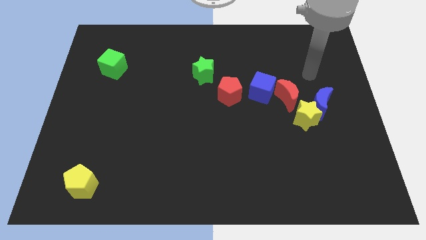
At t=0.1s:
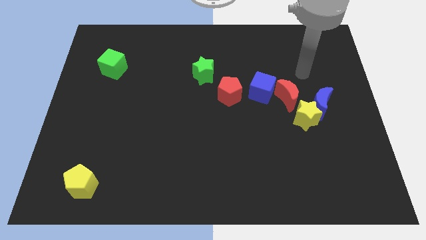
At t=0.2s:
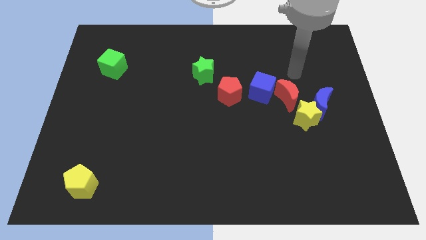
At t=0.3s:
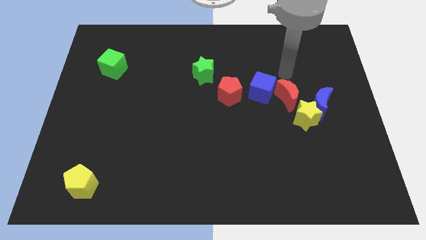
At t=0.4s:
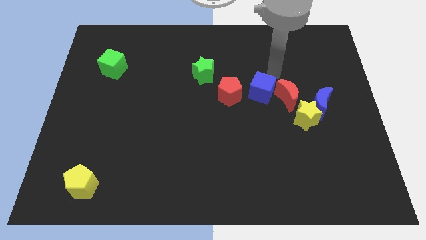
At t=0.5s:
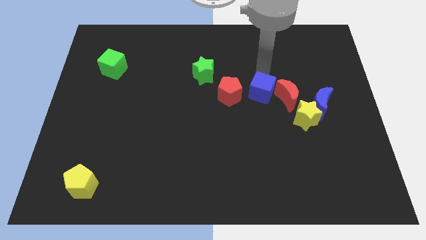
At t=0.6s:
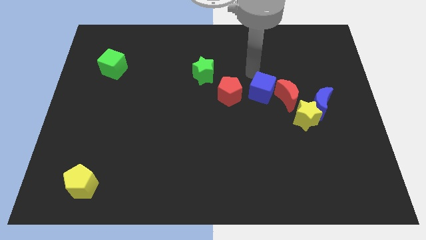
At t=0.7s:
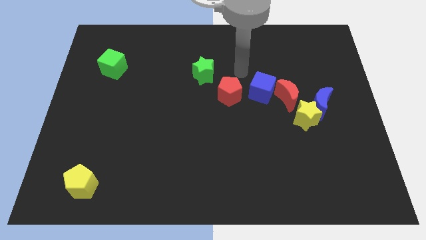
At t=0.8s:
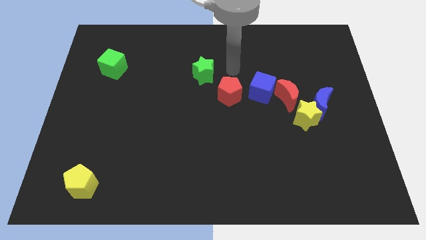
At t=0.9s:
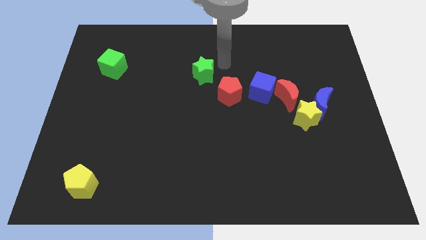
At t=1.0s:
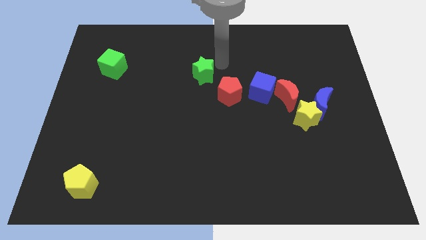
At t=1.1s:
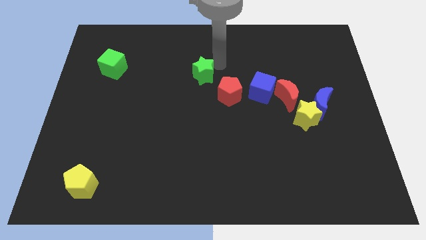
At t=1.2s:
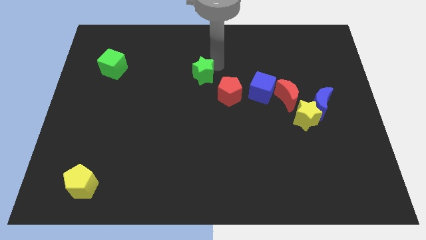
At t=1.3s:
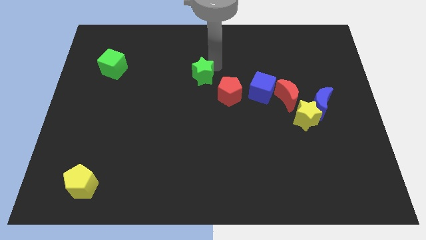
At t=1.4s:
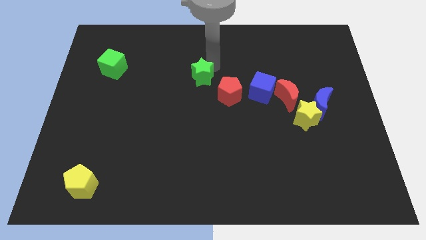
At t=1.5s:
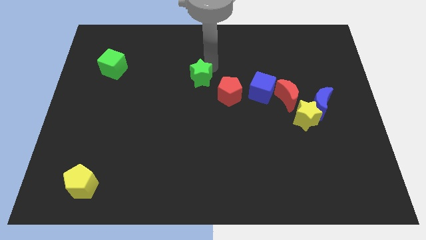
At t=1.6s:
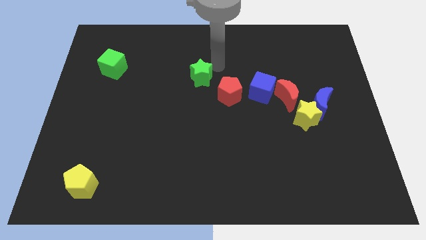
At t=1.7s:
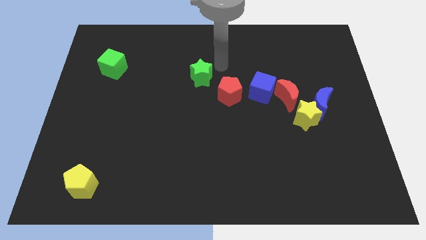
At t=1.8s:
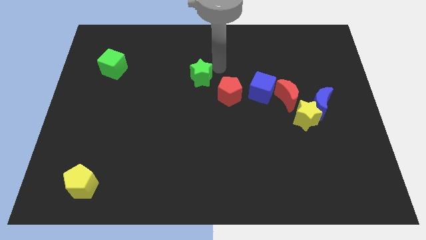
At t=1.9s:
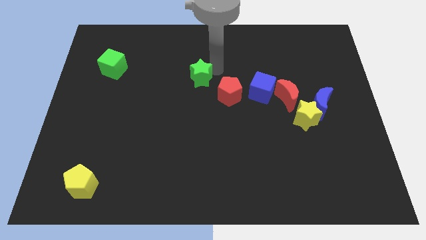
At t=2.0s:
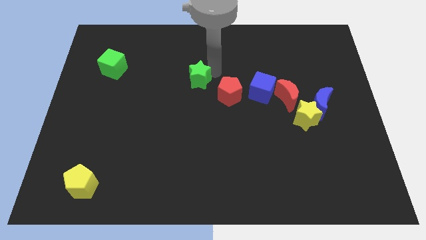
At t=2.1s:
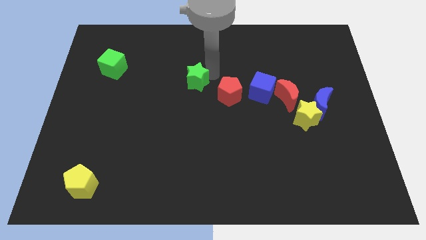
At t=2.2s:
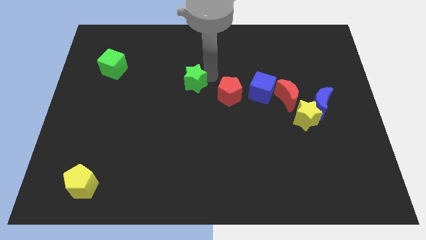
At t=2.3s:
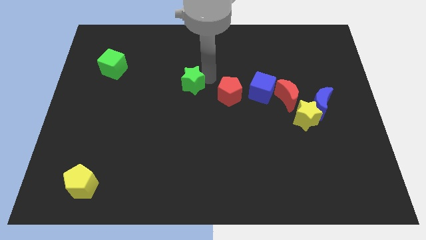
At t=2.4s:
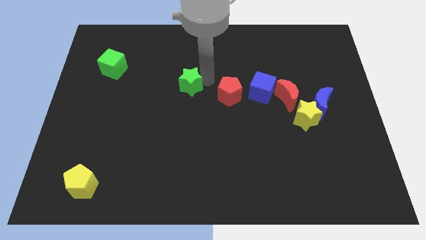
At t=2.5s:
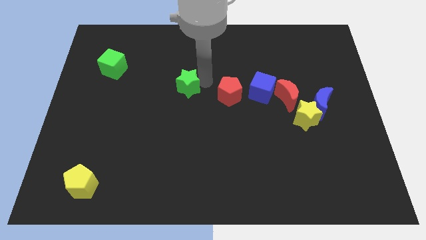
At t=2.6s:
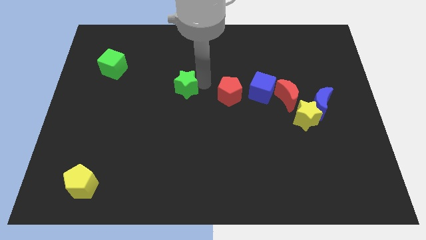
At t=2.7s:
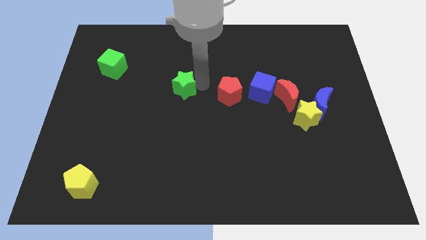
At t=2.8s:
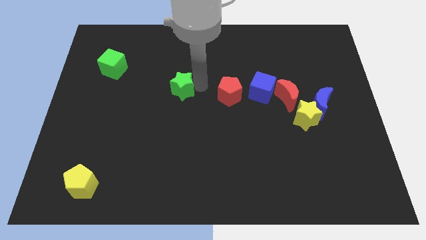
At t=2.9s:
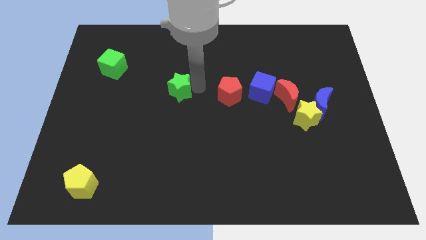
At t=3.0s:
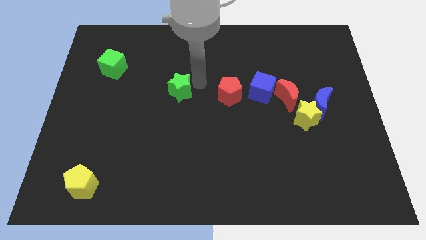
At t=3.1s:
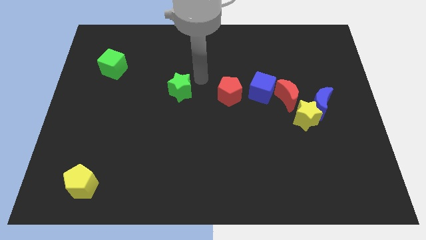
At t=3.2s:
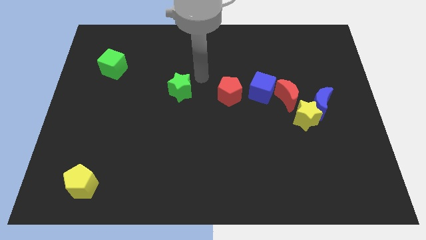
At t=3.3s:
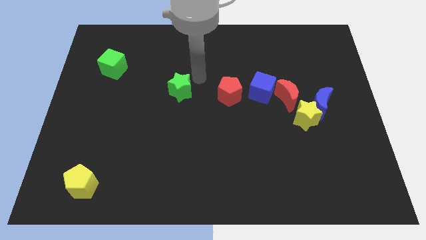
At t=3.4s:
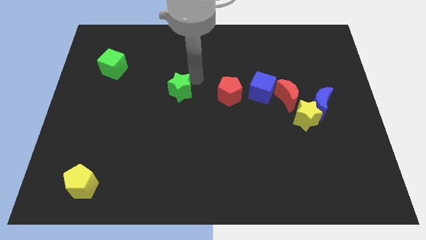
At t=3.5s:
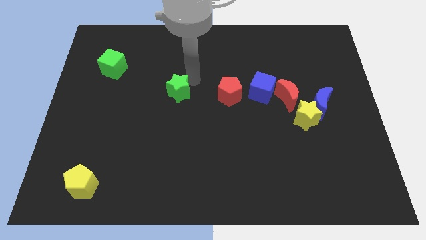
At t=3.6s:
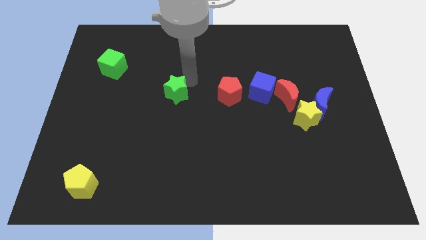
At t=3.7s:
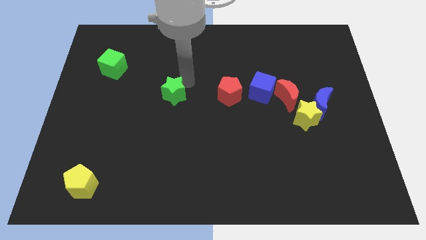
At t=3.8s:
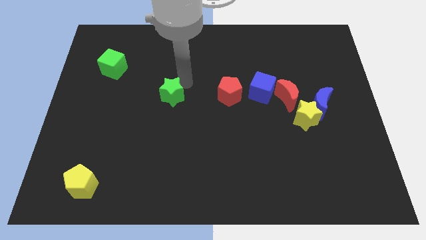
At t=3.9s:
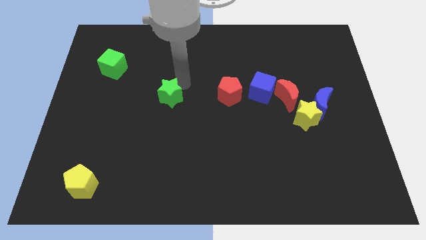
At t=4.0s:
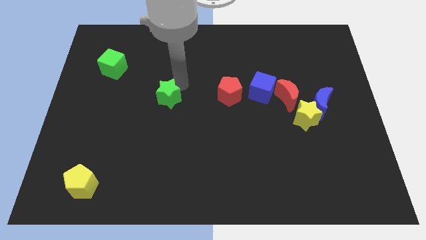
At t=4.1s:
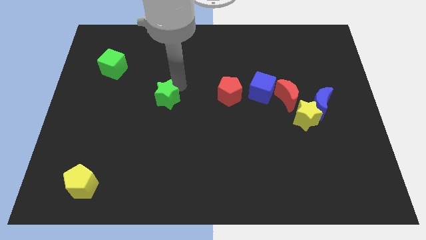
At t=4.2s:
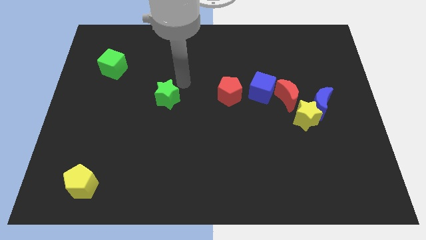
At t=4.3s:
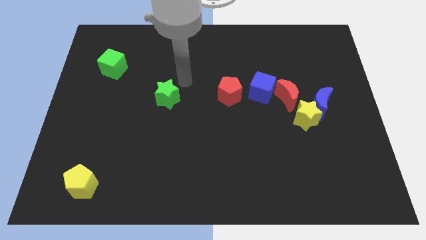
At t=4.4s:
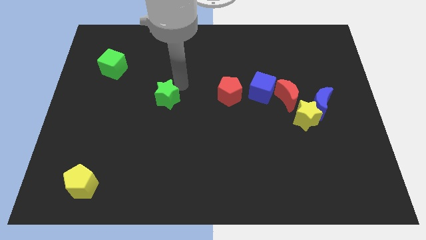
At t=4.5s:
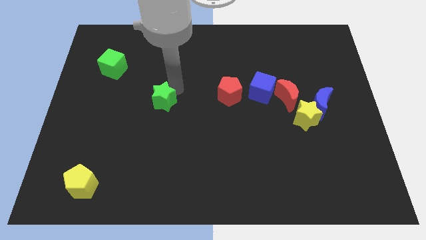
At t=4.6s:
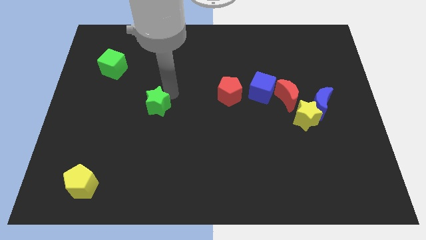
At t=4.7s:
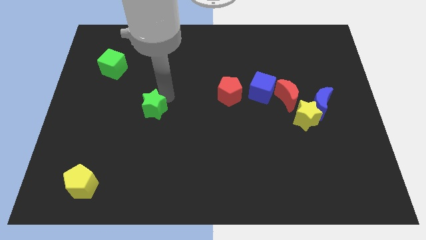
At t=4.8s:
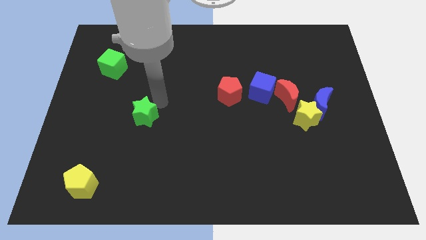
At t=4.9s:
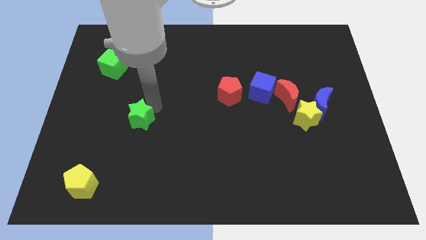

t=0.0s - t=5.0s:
slide the green star diagonally down and to the left

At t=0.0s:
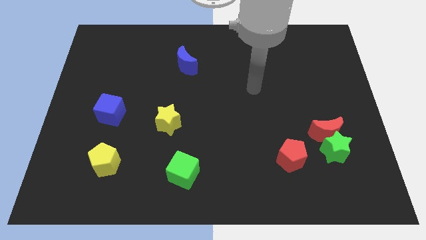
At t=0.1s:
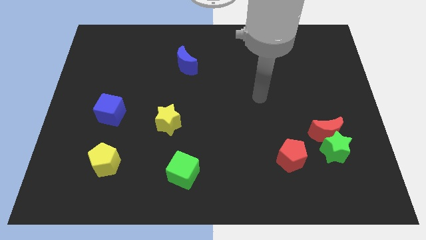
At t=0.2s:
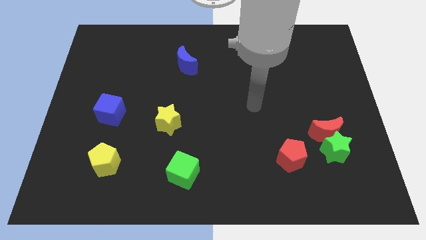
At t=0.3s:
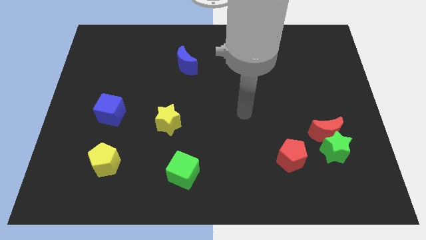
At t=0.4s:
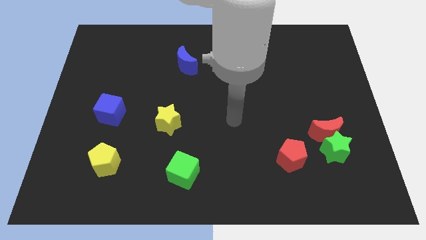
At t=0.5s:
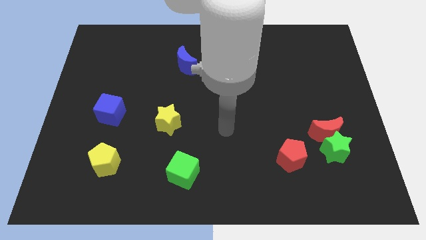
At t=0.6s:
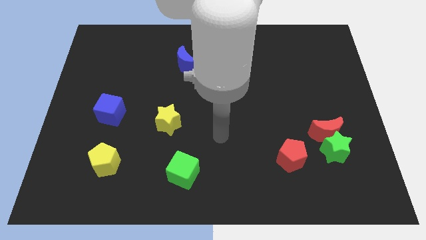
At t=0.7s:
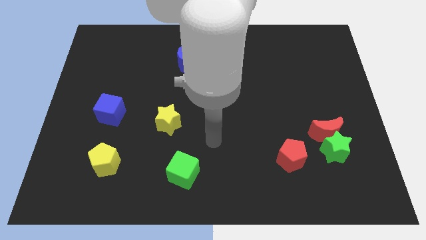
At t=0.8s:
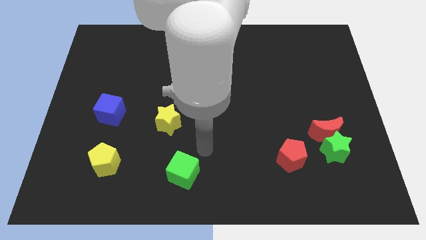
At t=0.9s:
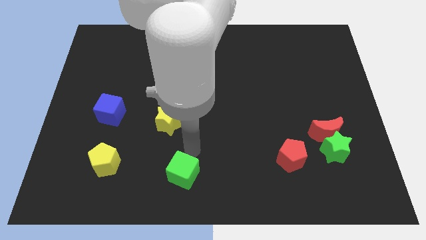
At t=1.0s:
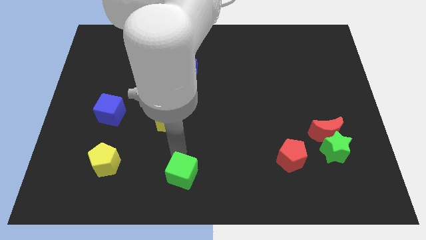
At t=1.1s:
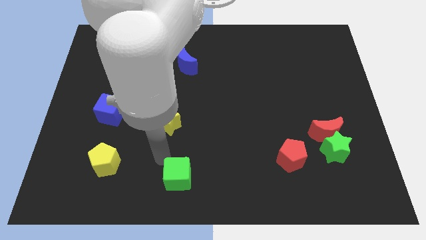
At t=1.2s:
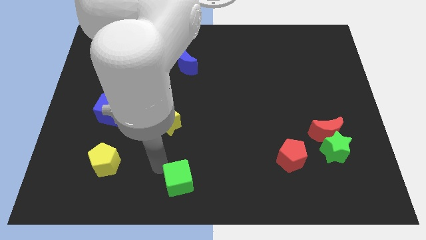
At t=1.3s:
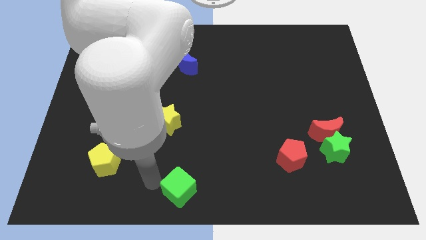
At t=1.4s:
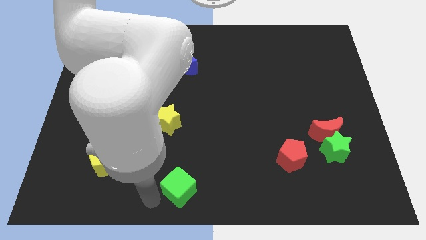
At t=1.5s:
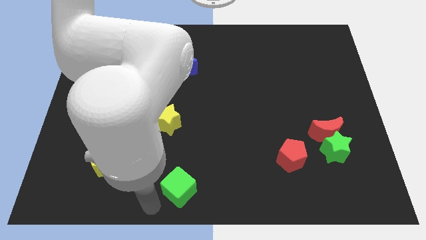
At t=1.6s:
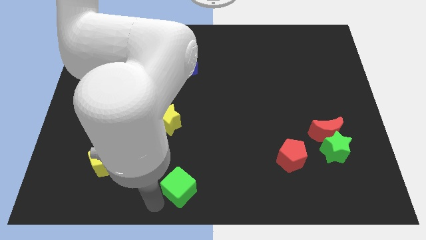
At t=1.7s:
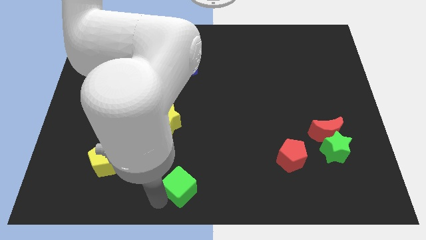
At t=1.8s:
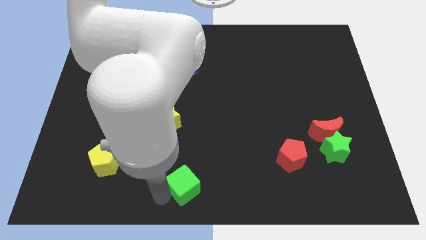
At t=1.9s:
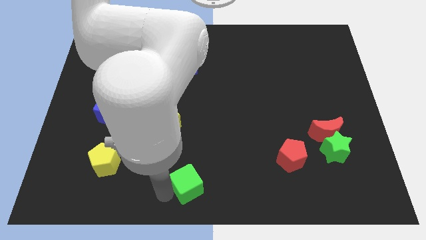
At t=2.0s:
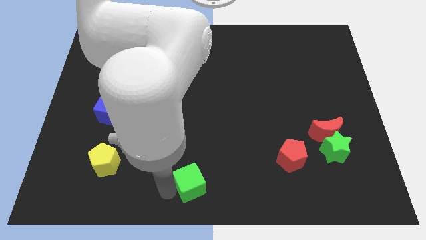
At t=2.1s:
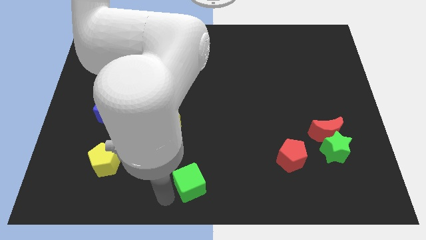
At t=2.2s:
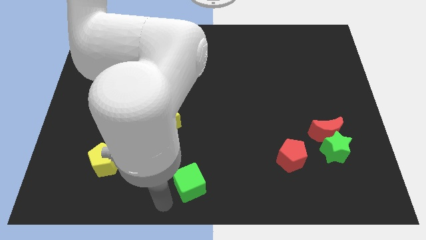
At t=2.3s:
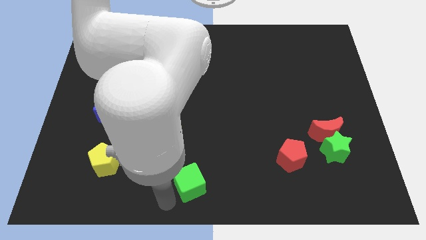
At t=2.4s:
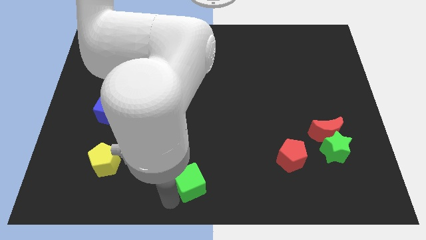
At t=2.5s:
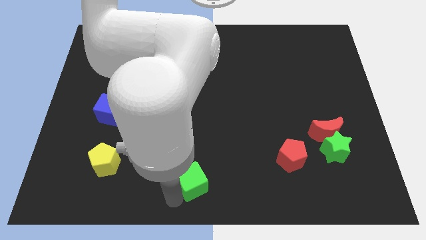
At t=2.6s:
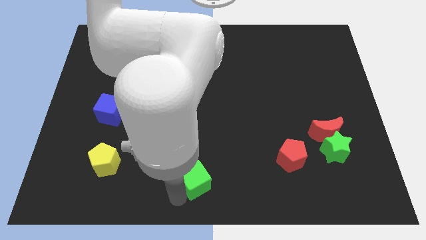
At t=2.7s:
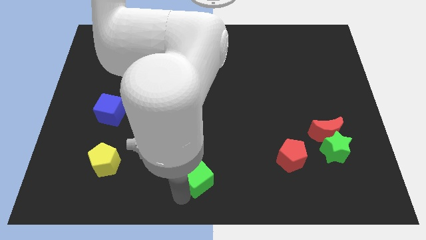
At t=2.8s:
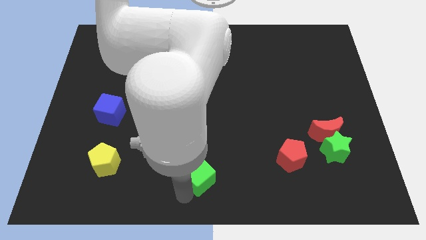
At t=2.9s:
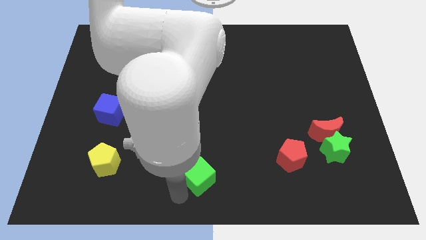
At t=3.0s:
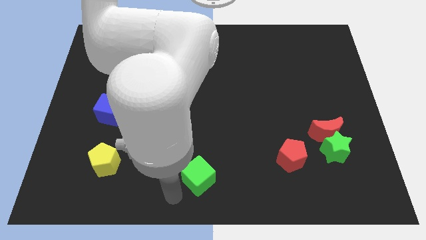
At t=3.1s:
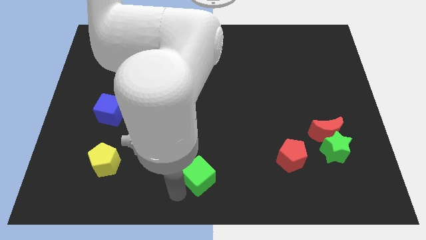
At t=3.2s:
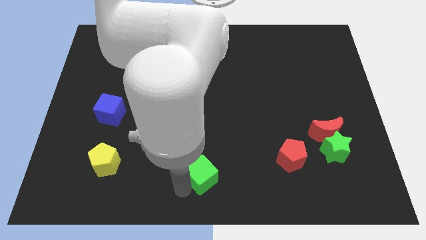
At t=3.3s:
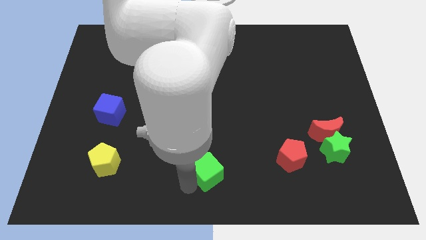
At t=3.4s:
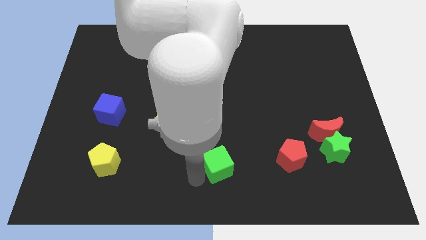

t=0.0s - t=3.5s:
slightly slide the green cube to the right
